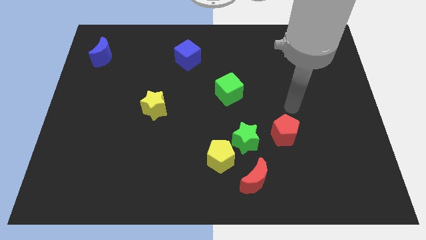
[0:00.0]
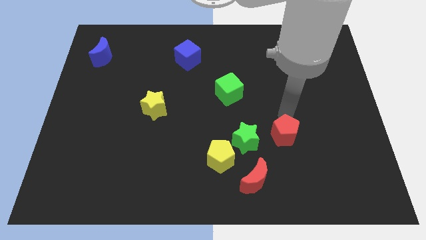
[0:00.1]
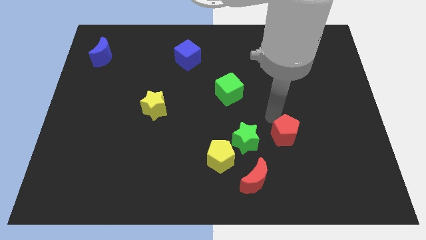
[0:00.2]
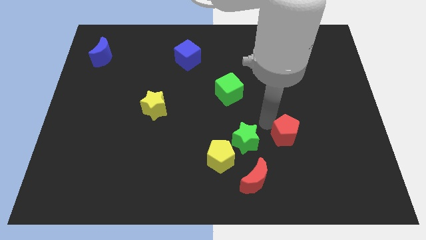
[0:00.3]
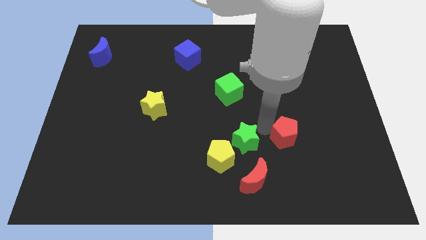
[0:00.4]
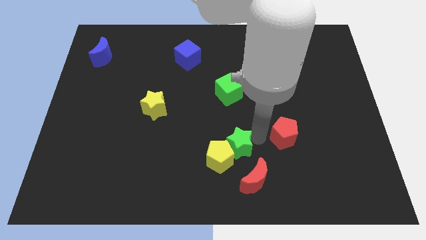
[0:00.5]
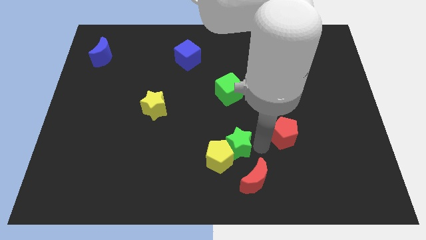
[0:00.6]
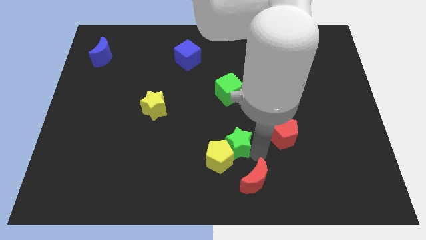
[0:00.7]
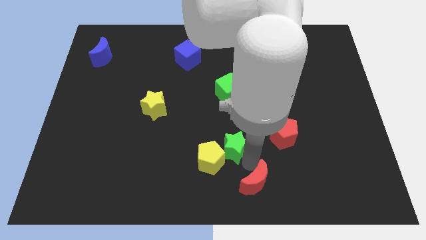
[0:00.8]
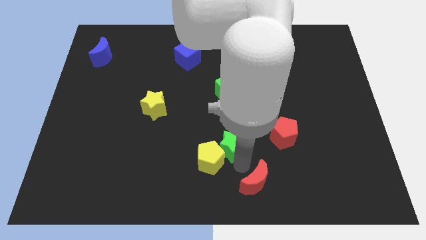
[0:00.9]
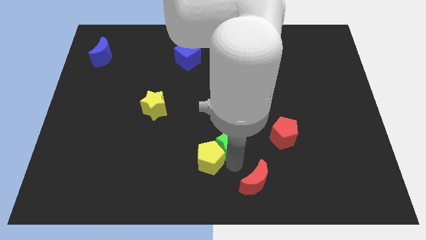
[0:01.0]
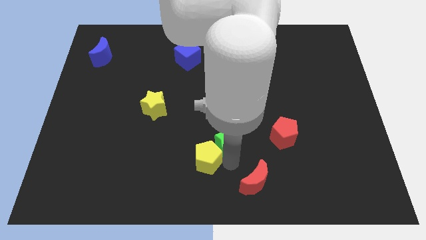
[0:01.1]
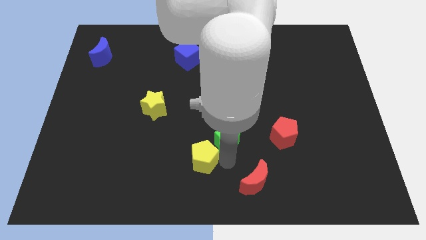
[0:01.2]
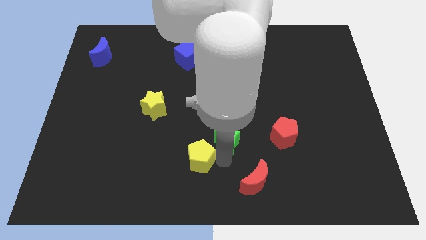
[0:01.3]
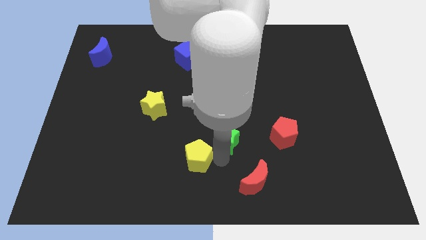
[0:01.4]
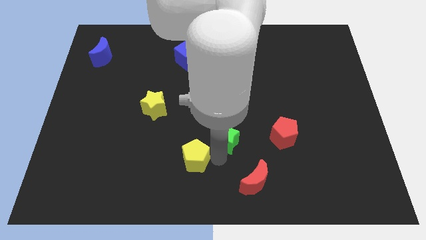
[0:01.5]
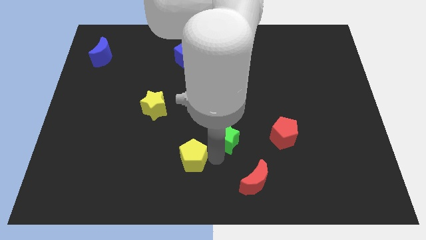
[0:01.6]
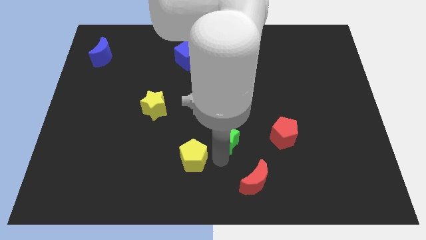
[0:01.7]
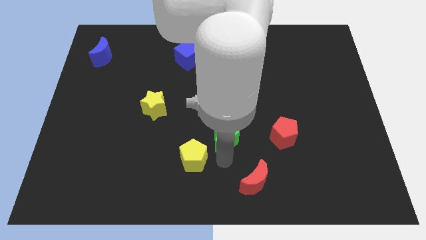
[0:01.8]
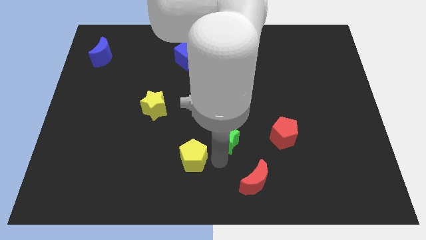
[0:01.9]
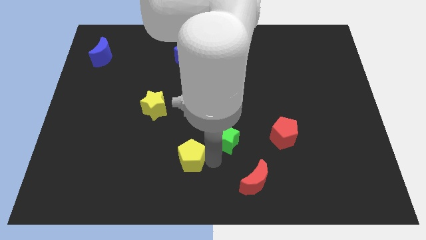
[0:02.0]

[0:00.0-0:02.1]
pull the yellow pentagon apart from the green star and red moon

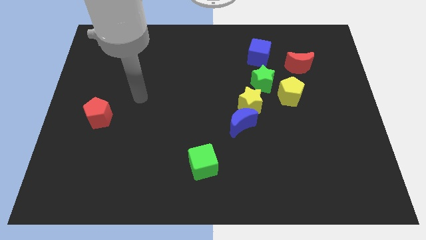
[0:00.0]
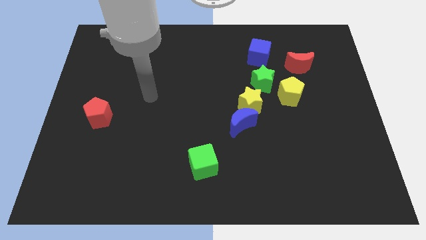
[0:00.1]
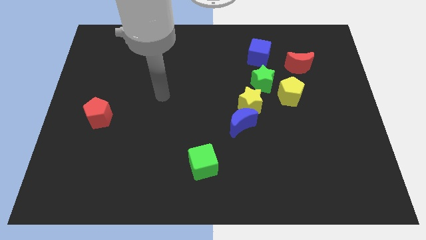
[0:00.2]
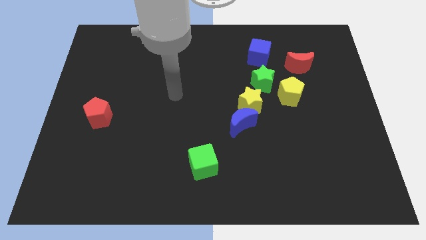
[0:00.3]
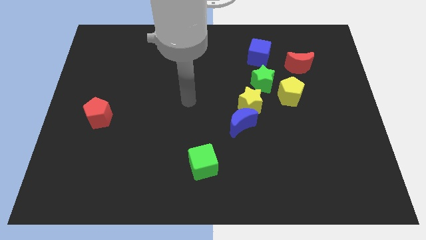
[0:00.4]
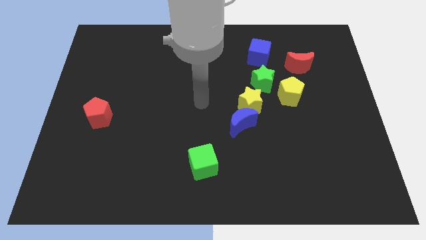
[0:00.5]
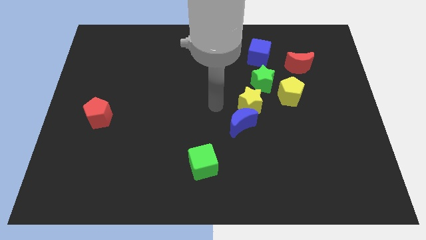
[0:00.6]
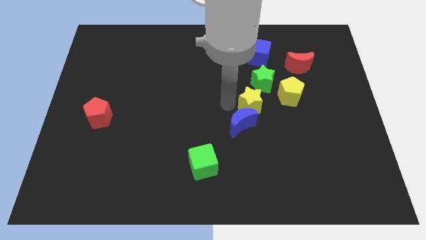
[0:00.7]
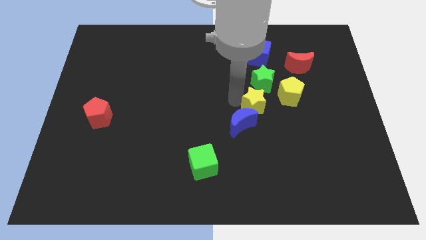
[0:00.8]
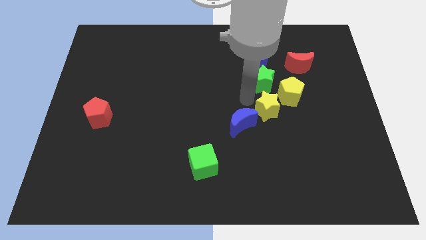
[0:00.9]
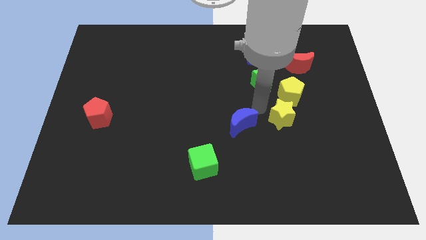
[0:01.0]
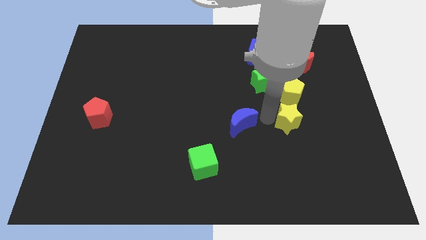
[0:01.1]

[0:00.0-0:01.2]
move the blue moon away from the yellow star

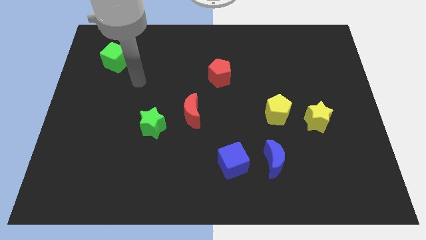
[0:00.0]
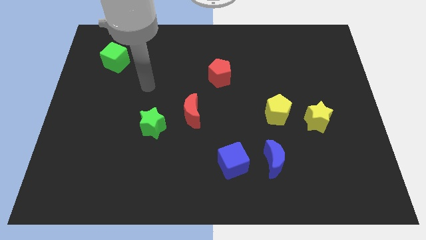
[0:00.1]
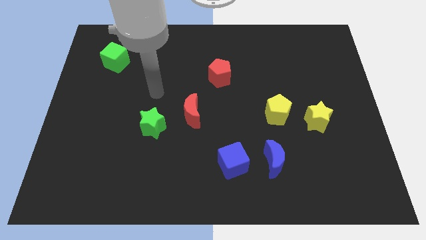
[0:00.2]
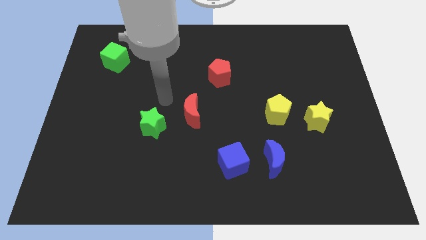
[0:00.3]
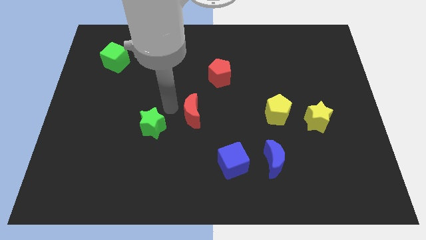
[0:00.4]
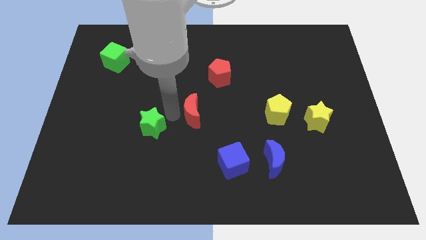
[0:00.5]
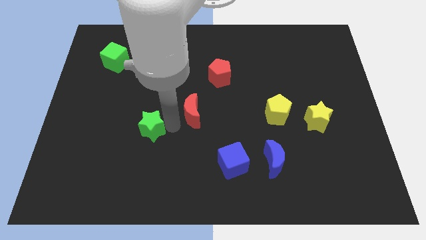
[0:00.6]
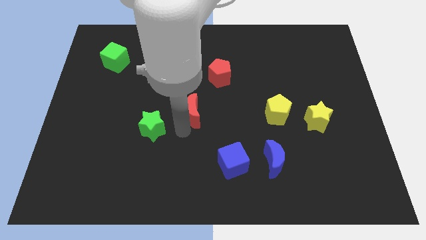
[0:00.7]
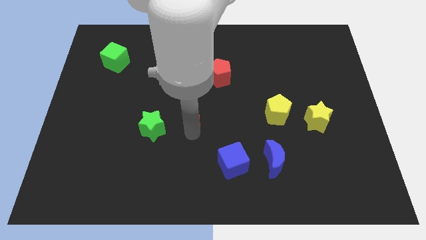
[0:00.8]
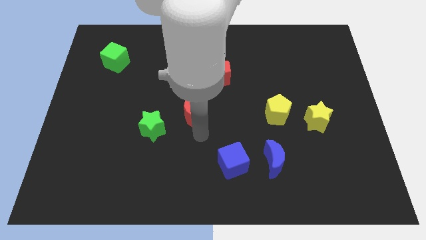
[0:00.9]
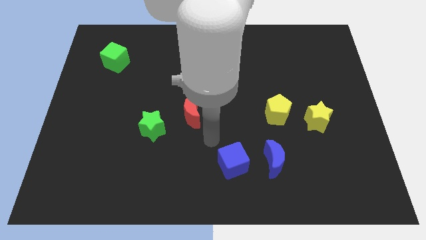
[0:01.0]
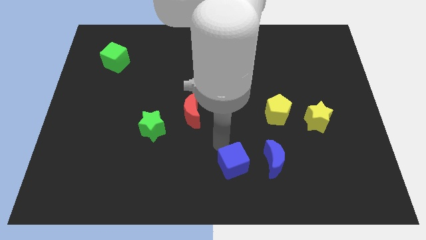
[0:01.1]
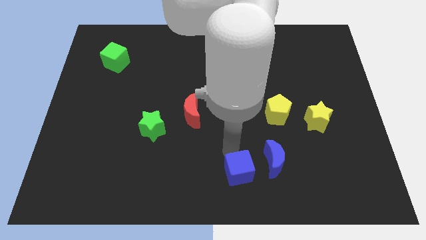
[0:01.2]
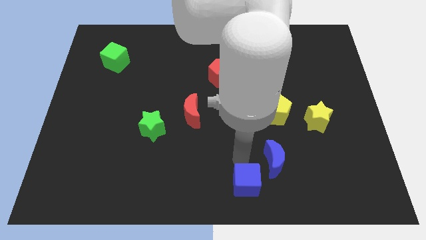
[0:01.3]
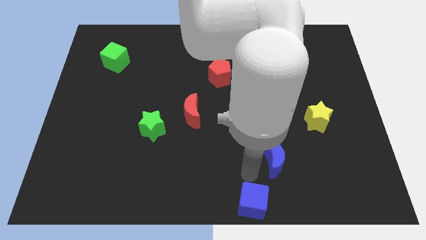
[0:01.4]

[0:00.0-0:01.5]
move the blue moon away from the blue cube

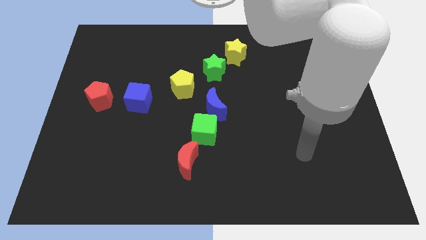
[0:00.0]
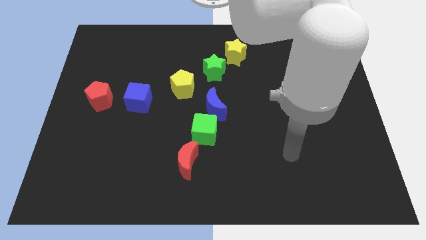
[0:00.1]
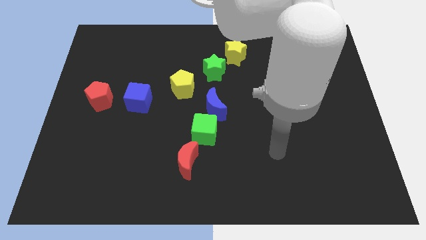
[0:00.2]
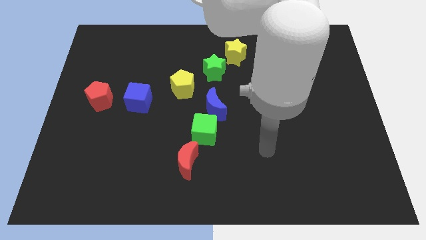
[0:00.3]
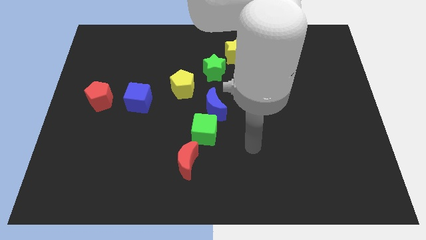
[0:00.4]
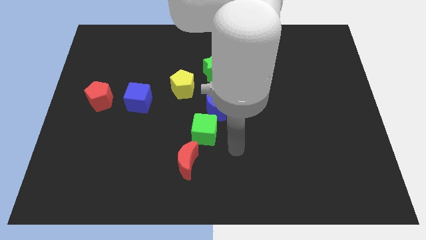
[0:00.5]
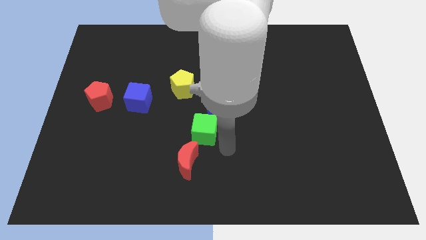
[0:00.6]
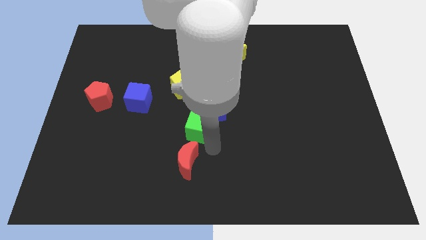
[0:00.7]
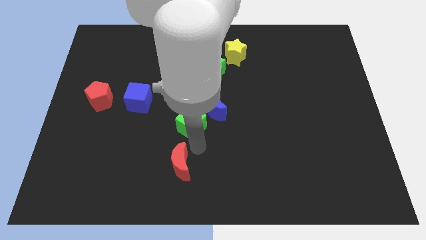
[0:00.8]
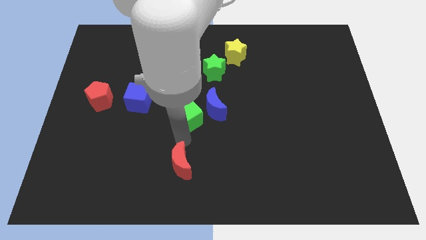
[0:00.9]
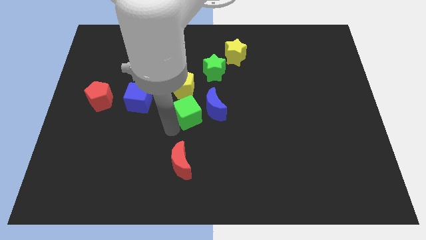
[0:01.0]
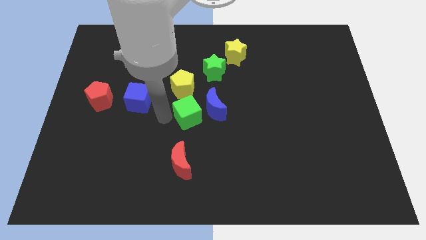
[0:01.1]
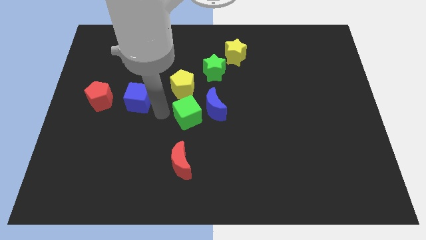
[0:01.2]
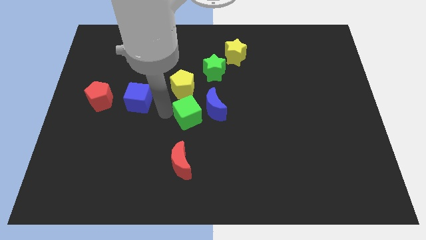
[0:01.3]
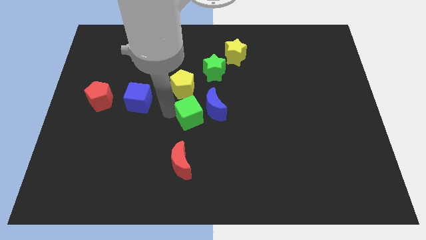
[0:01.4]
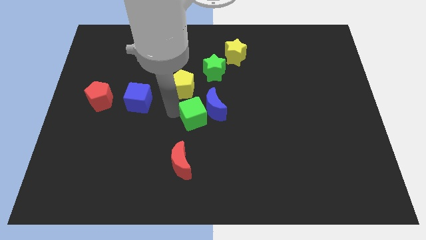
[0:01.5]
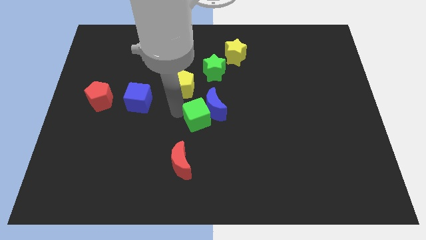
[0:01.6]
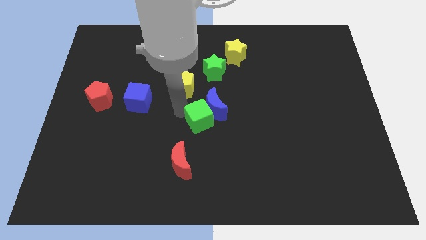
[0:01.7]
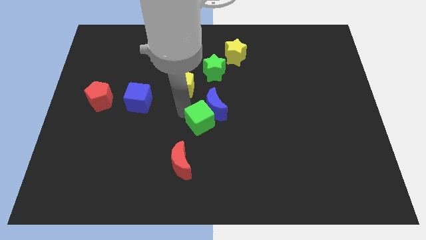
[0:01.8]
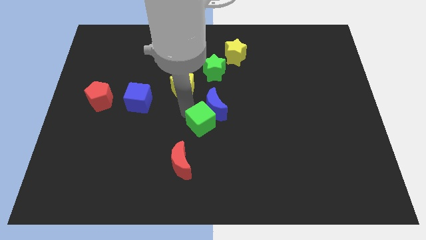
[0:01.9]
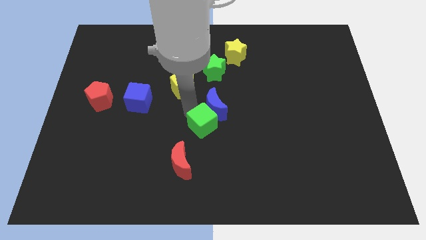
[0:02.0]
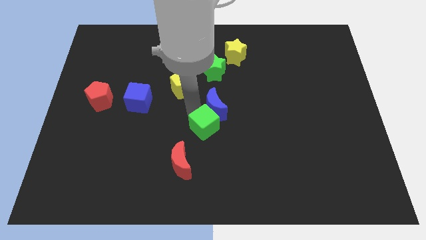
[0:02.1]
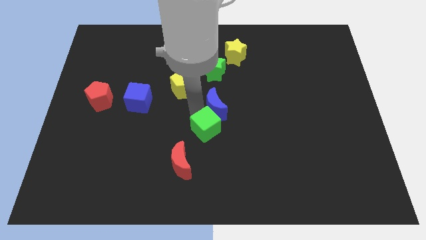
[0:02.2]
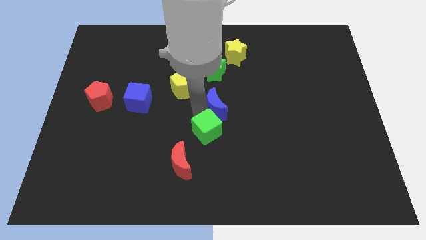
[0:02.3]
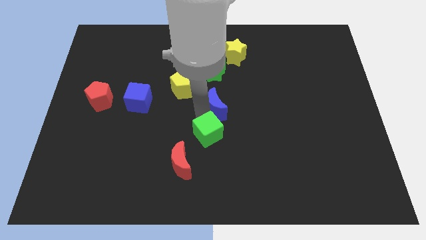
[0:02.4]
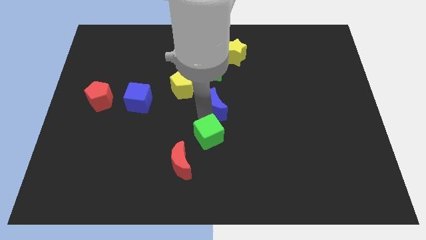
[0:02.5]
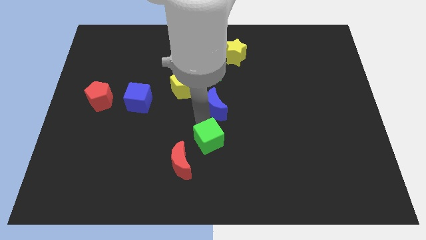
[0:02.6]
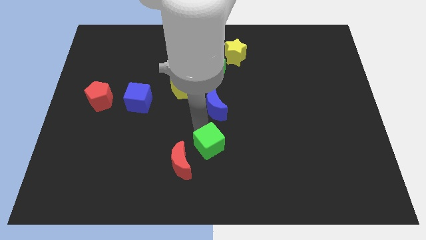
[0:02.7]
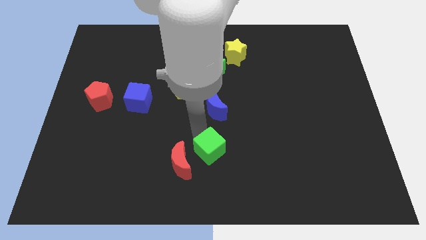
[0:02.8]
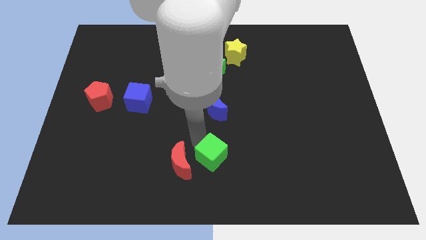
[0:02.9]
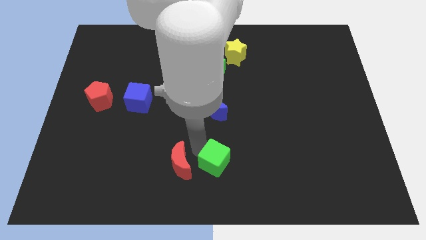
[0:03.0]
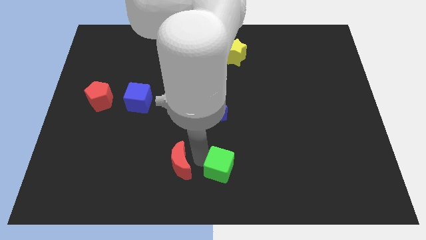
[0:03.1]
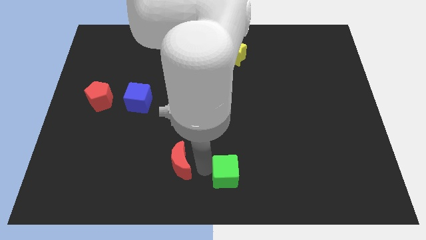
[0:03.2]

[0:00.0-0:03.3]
separate the green cube from the blue moon and red moon

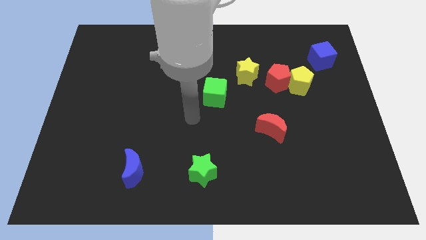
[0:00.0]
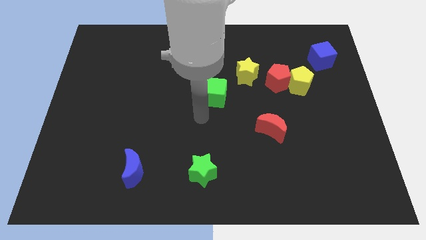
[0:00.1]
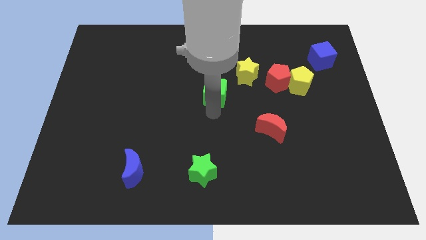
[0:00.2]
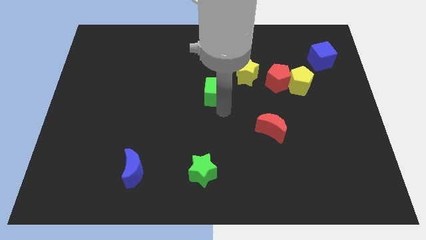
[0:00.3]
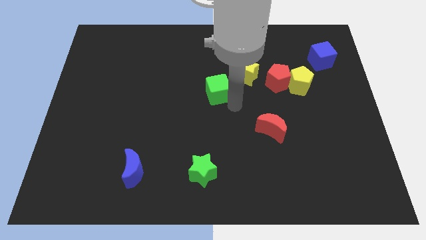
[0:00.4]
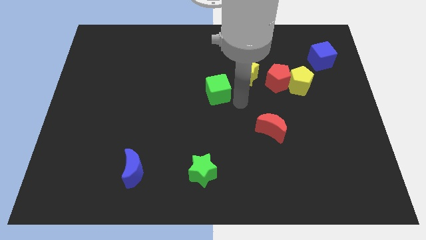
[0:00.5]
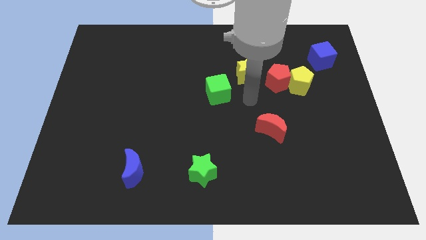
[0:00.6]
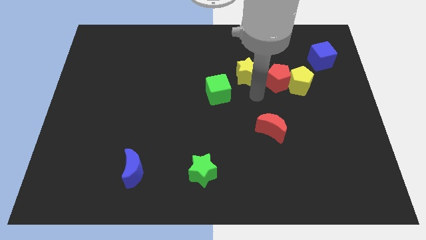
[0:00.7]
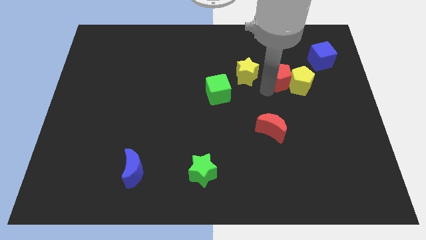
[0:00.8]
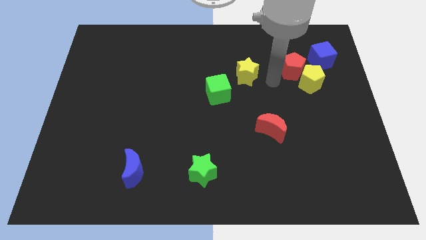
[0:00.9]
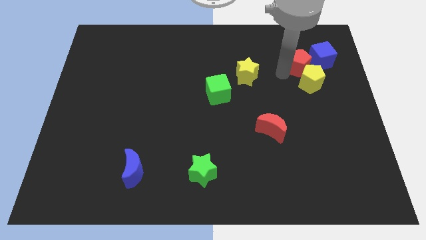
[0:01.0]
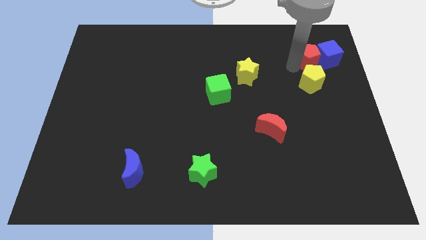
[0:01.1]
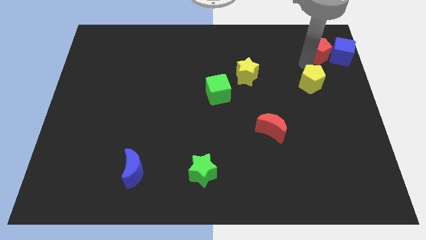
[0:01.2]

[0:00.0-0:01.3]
move the yellow pentagon away from the red pentagon
